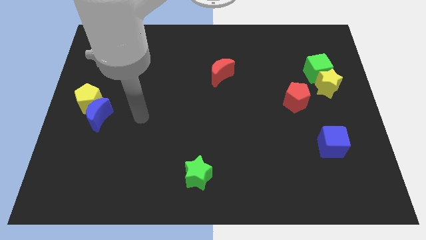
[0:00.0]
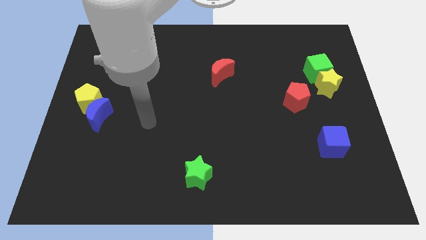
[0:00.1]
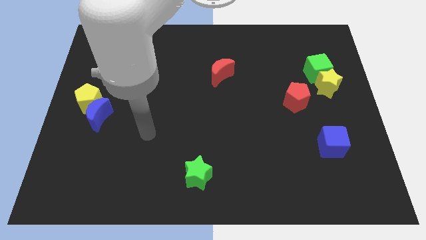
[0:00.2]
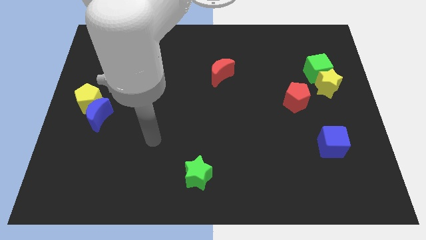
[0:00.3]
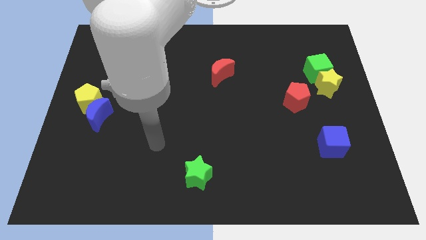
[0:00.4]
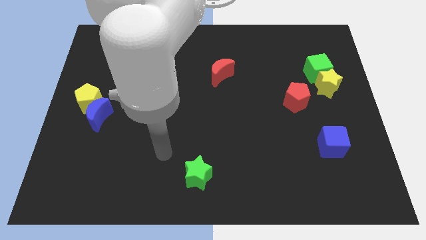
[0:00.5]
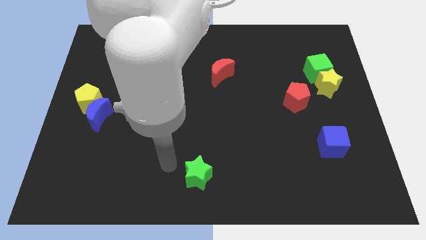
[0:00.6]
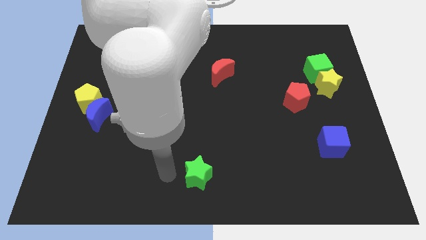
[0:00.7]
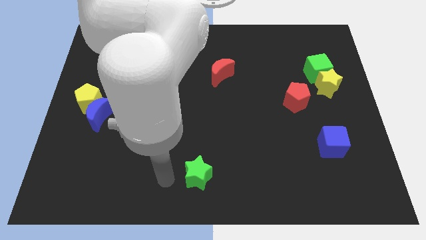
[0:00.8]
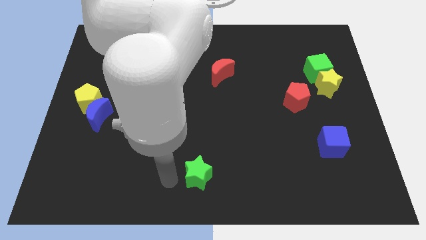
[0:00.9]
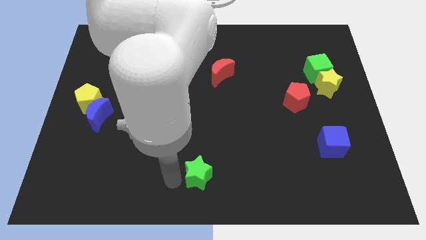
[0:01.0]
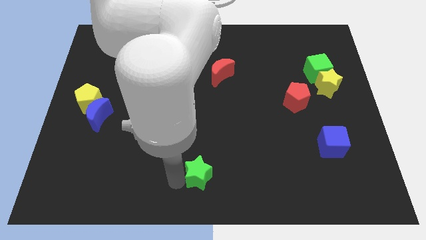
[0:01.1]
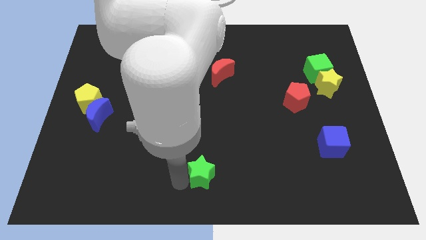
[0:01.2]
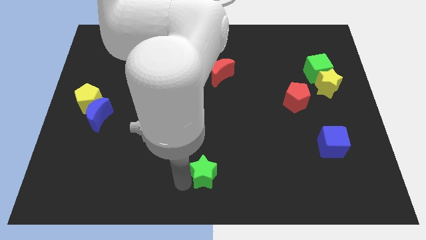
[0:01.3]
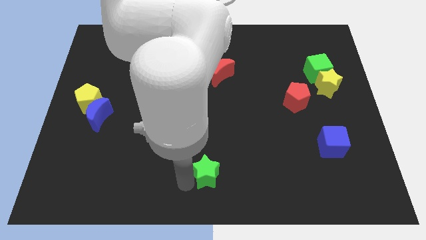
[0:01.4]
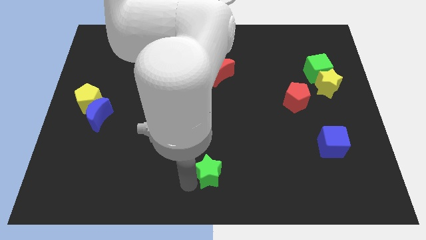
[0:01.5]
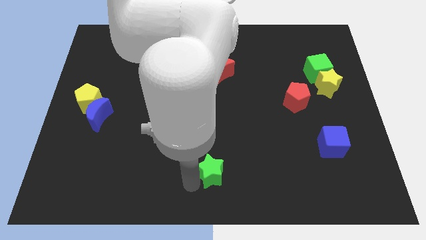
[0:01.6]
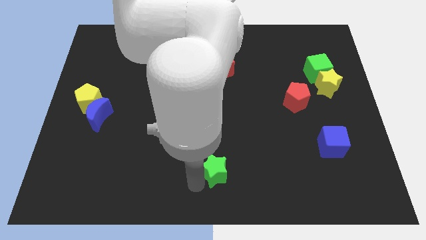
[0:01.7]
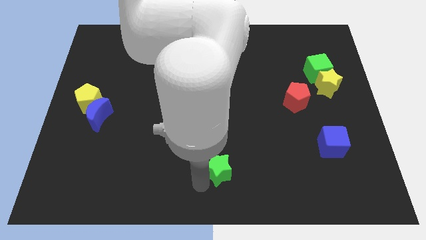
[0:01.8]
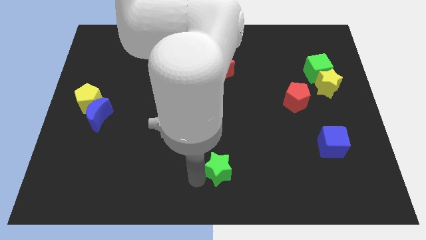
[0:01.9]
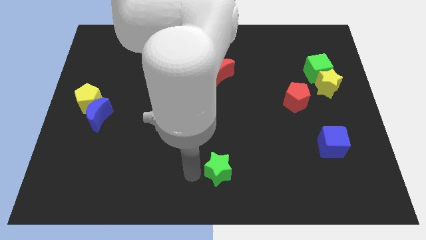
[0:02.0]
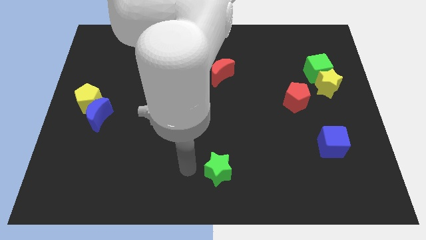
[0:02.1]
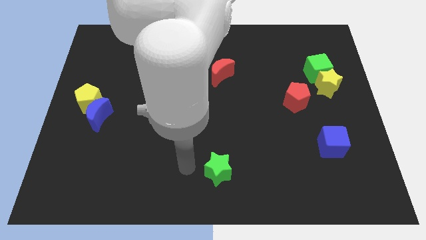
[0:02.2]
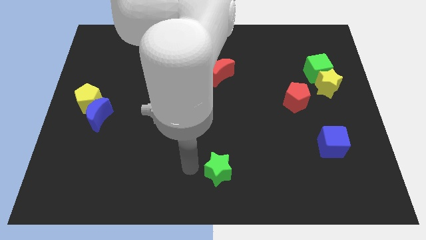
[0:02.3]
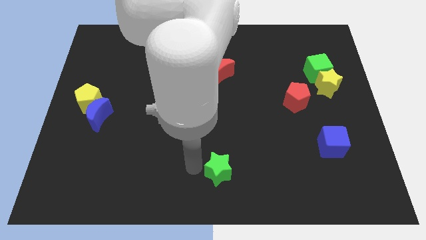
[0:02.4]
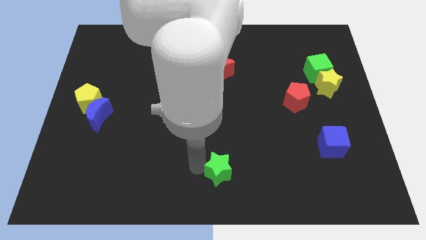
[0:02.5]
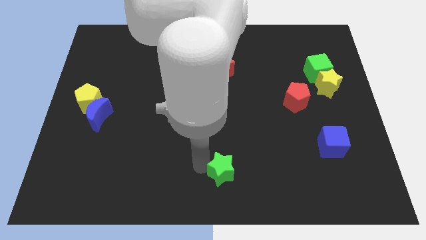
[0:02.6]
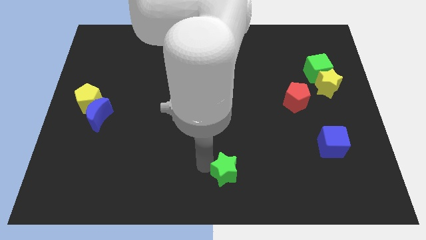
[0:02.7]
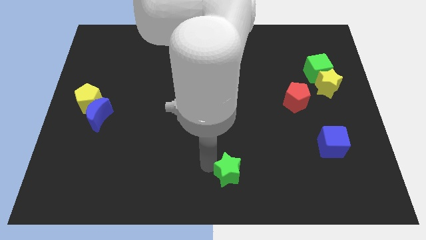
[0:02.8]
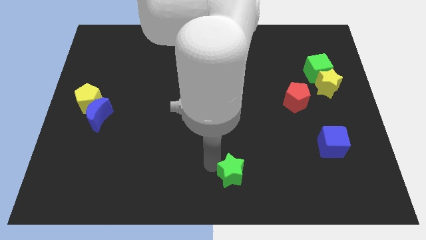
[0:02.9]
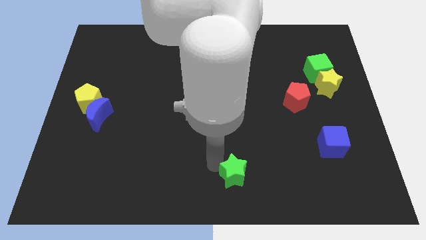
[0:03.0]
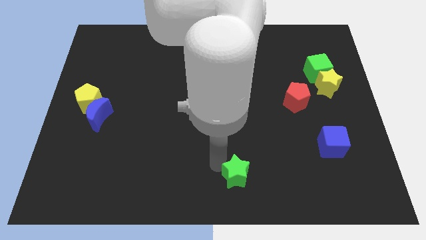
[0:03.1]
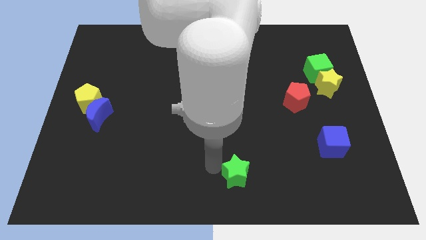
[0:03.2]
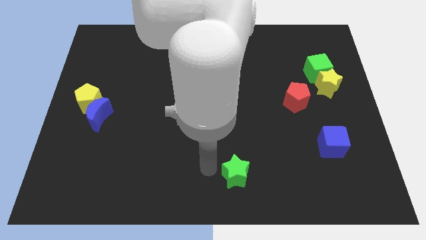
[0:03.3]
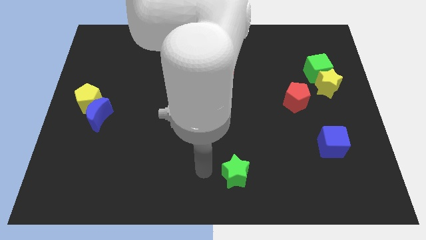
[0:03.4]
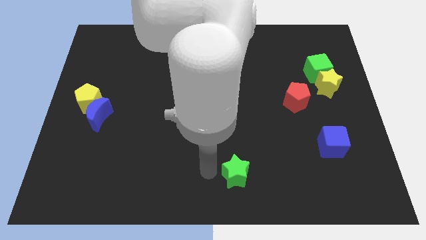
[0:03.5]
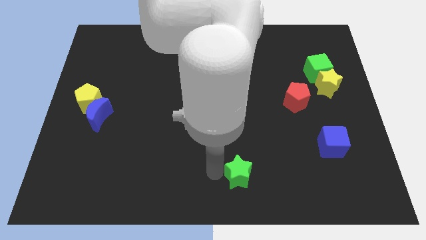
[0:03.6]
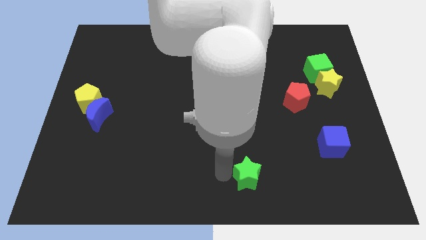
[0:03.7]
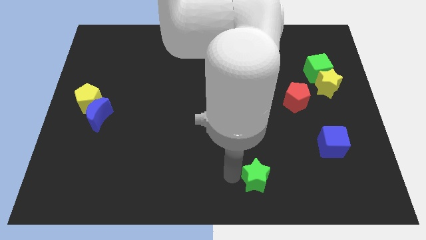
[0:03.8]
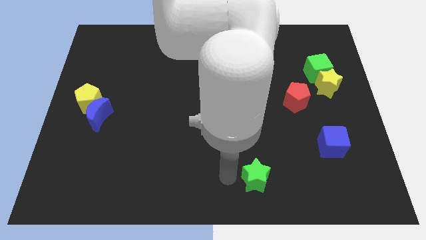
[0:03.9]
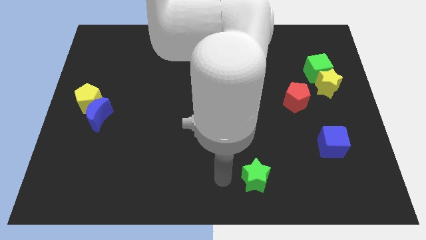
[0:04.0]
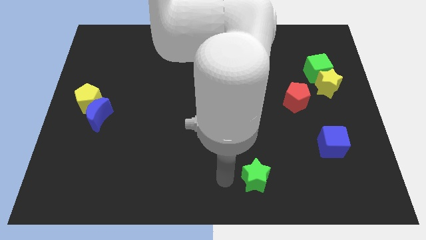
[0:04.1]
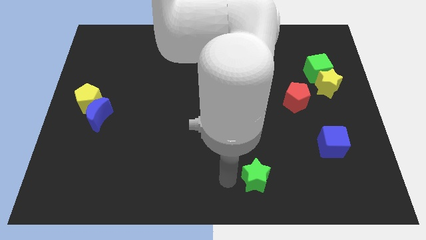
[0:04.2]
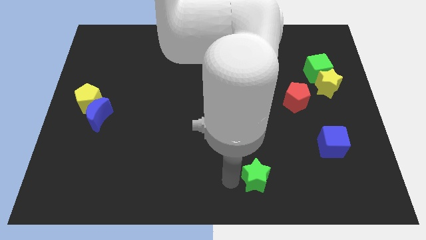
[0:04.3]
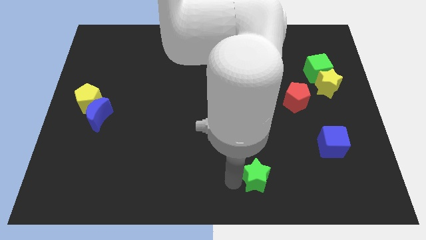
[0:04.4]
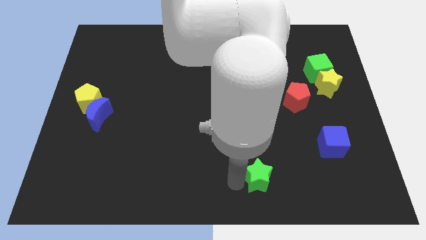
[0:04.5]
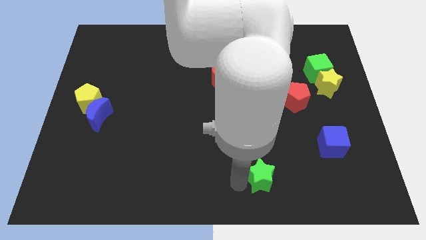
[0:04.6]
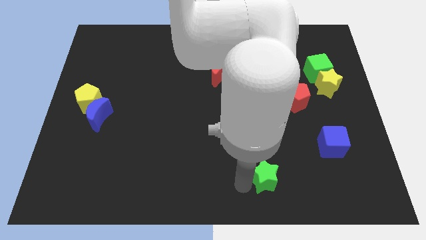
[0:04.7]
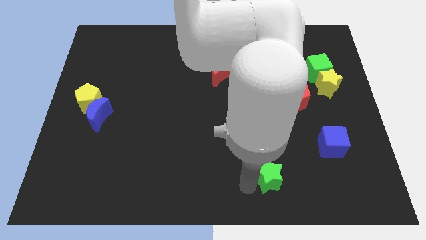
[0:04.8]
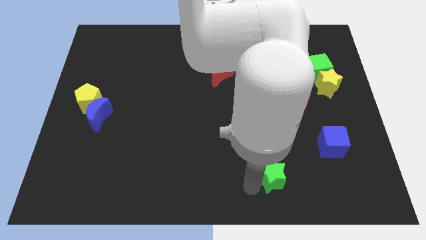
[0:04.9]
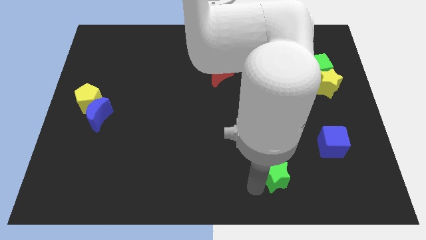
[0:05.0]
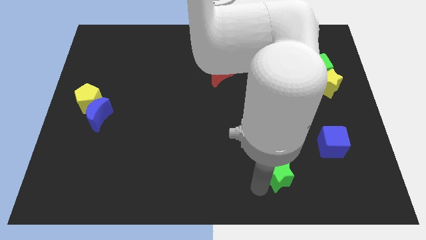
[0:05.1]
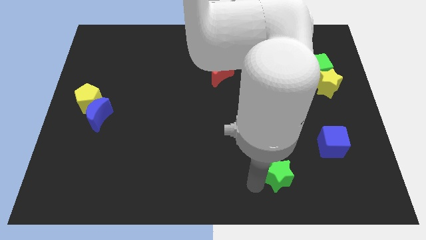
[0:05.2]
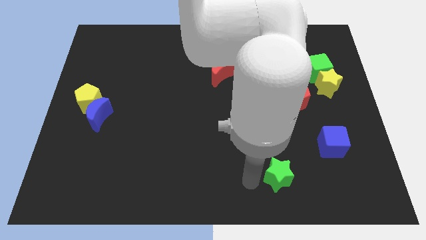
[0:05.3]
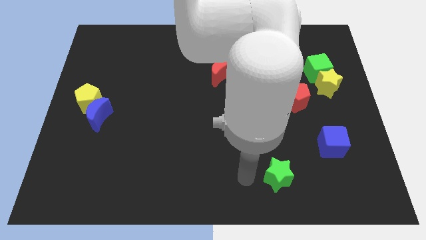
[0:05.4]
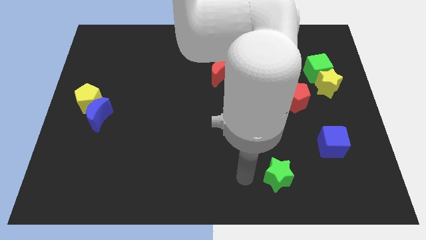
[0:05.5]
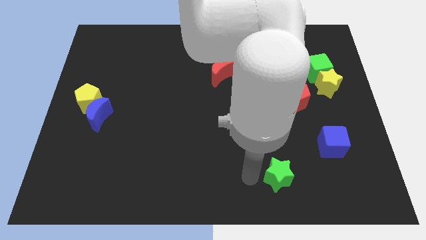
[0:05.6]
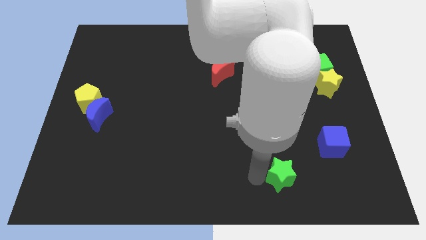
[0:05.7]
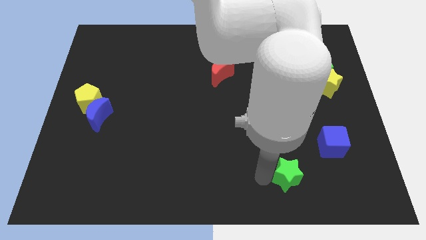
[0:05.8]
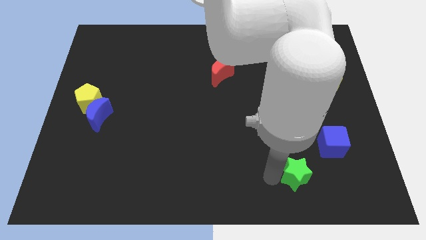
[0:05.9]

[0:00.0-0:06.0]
push the green star to the right

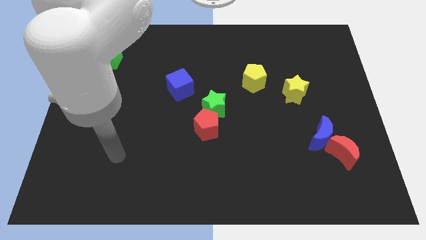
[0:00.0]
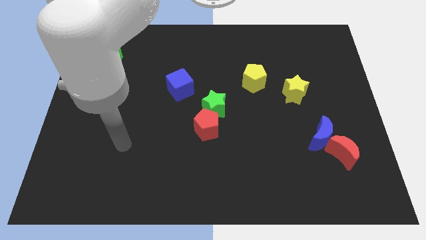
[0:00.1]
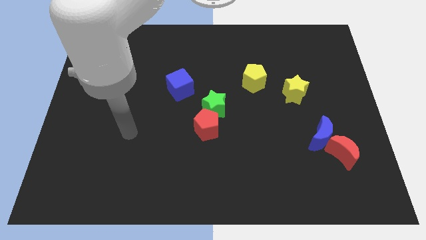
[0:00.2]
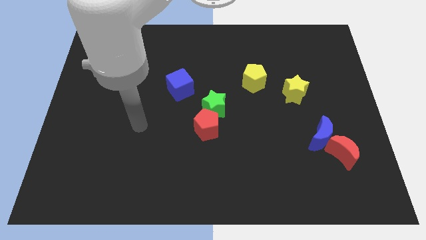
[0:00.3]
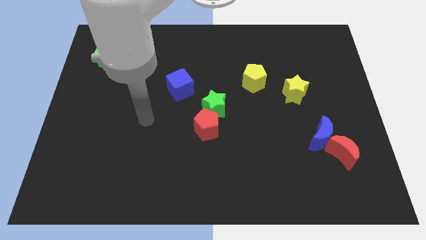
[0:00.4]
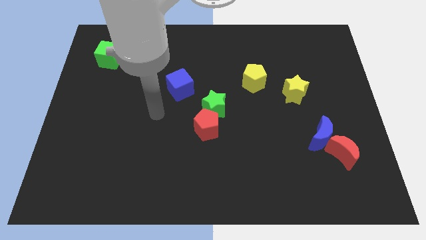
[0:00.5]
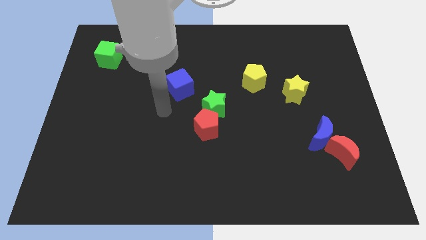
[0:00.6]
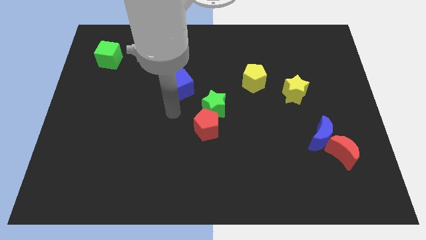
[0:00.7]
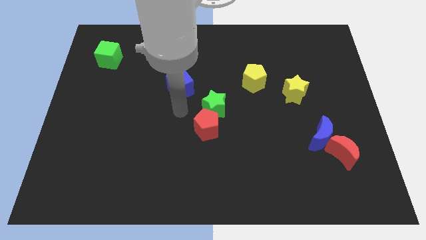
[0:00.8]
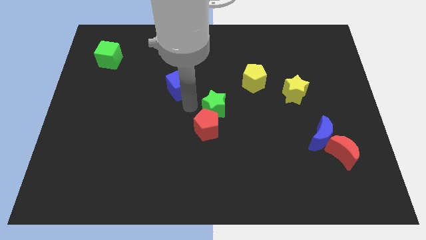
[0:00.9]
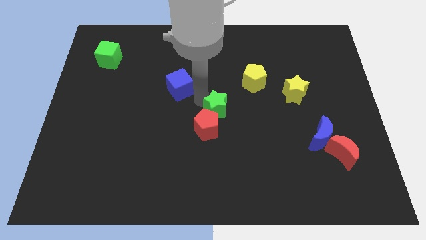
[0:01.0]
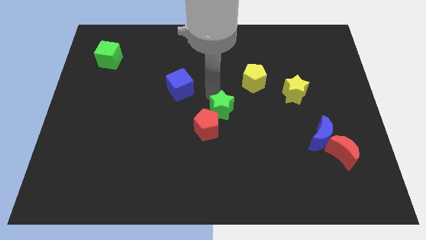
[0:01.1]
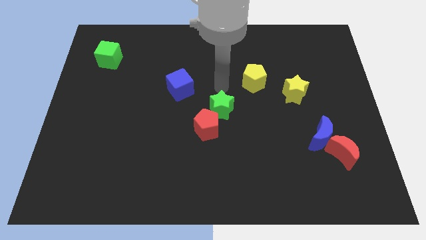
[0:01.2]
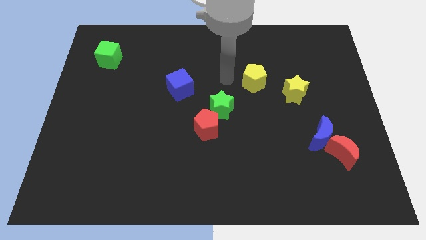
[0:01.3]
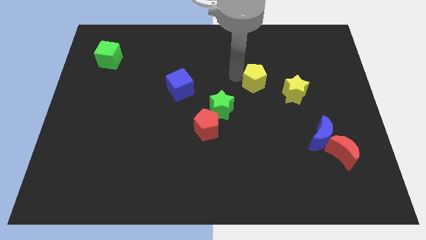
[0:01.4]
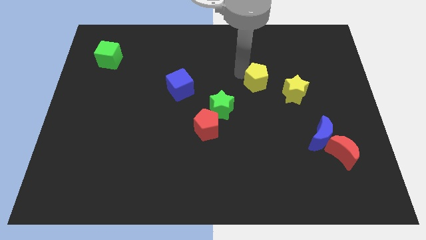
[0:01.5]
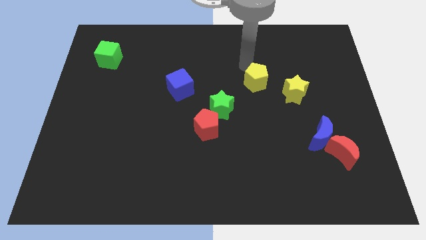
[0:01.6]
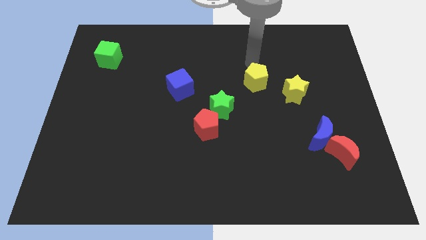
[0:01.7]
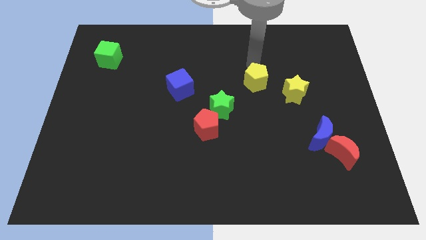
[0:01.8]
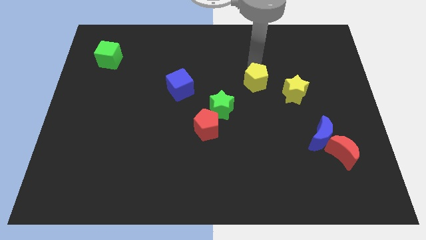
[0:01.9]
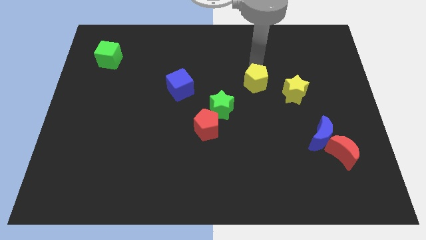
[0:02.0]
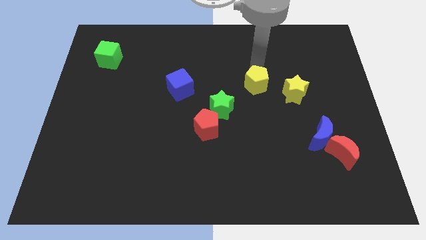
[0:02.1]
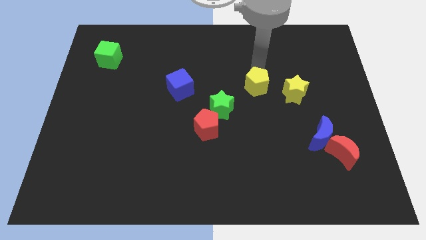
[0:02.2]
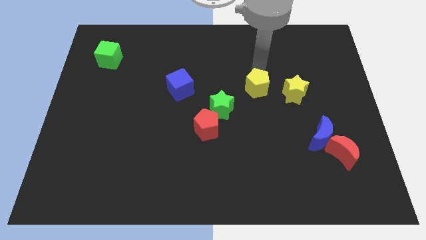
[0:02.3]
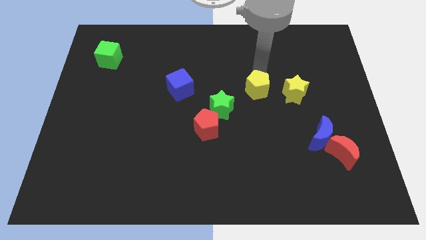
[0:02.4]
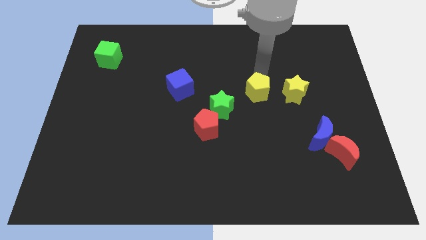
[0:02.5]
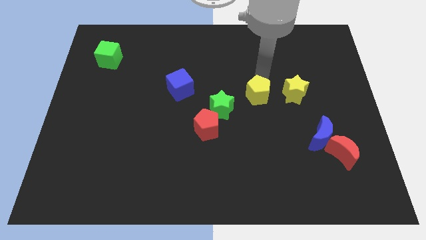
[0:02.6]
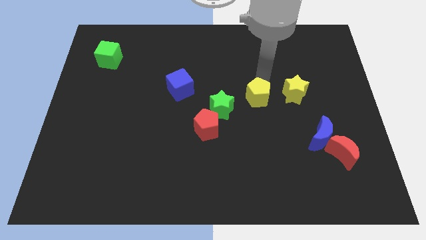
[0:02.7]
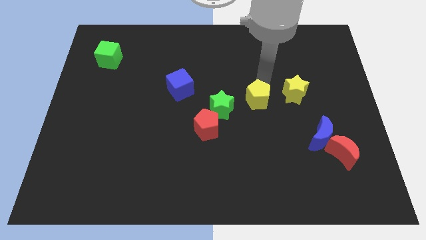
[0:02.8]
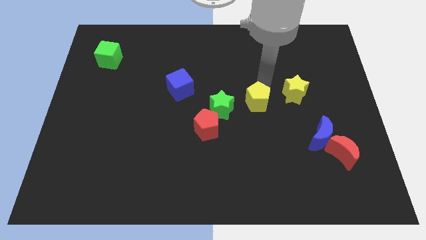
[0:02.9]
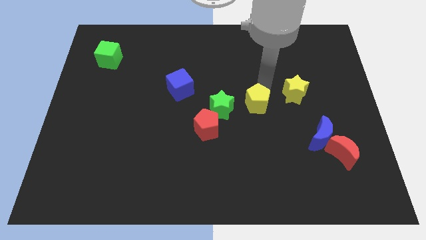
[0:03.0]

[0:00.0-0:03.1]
move the yellow pentagon downwards somewhat
